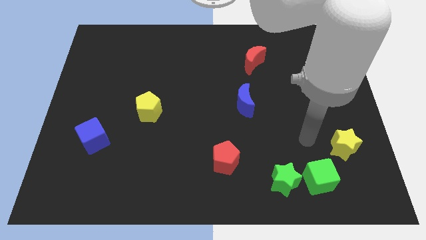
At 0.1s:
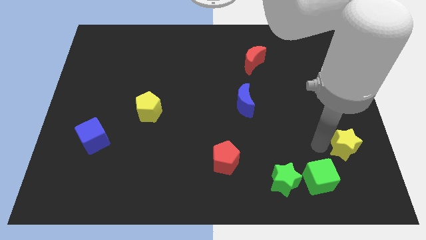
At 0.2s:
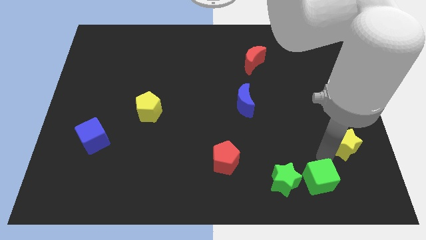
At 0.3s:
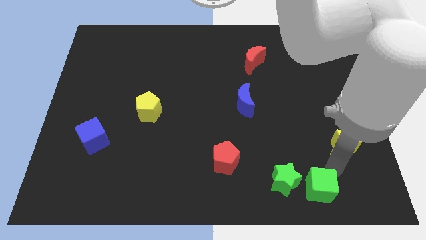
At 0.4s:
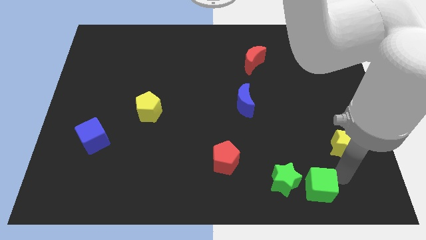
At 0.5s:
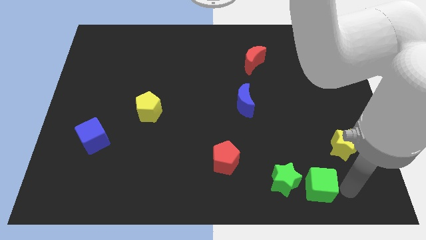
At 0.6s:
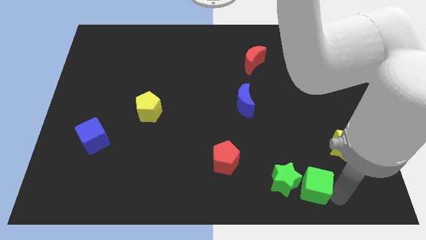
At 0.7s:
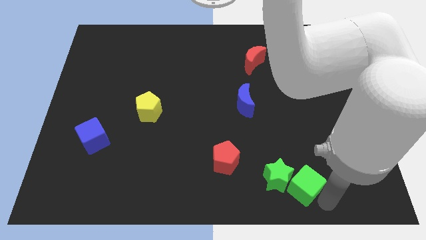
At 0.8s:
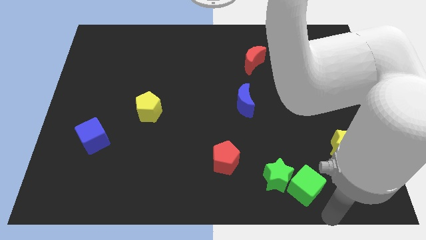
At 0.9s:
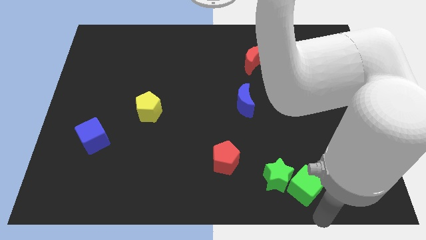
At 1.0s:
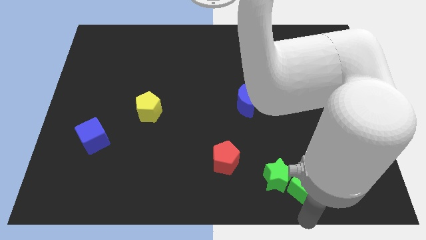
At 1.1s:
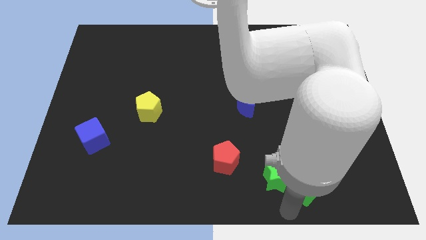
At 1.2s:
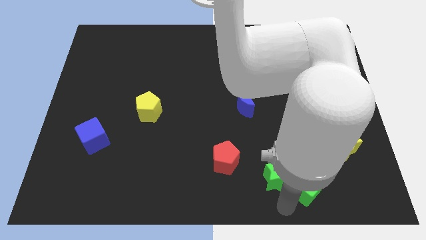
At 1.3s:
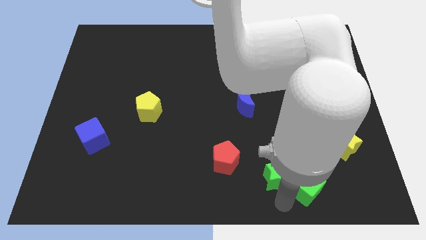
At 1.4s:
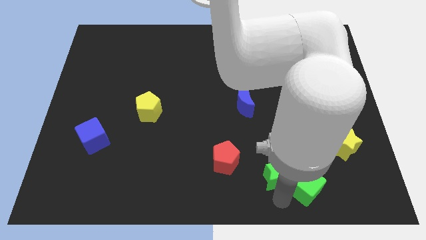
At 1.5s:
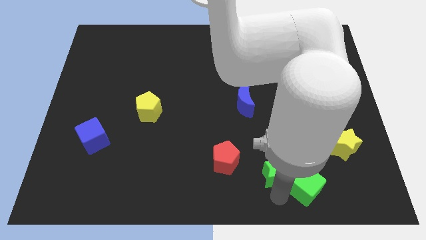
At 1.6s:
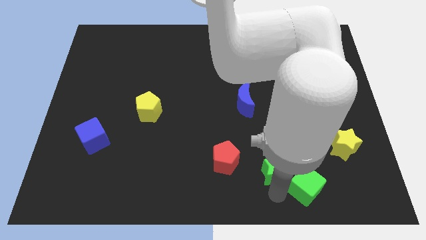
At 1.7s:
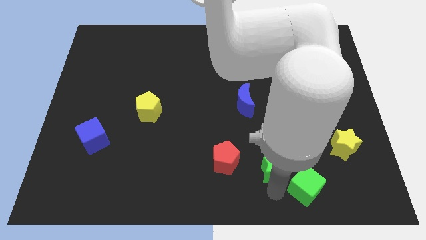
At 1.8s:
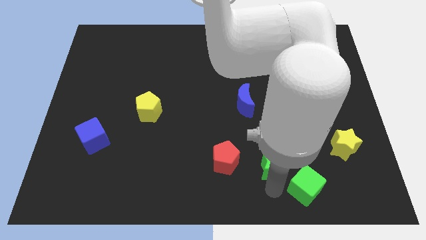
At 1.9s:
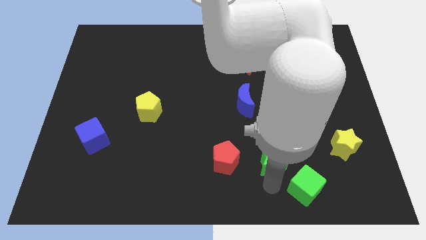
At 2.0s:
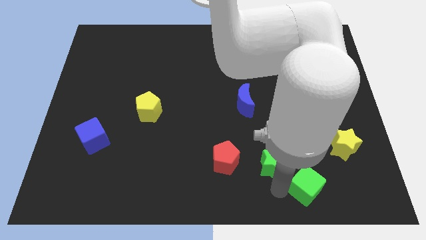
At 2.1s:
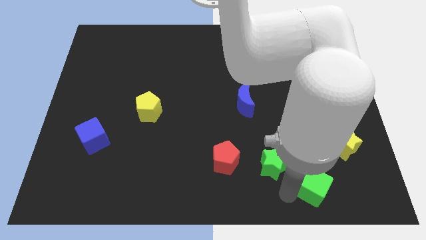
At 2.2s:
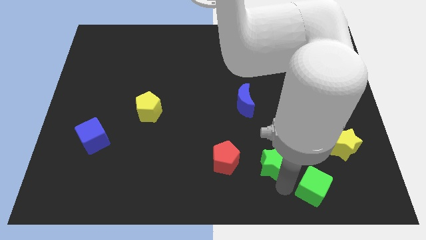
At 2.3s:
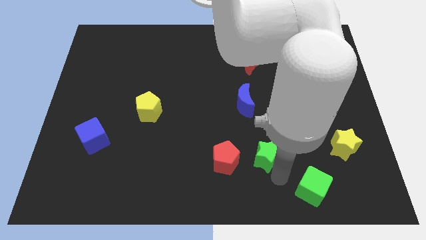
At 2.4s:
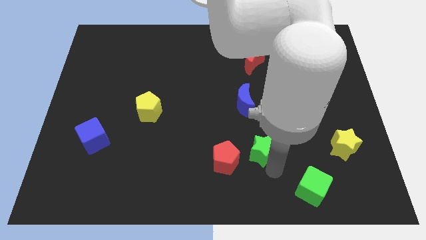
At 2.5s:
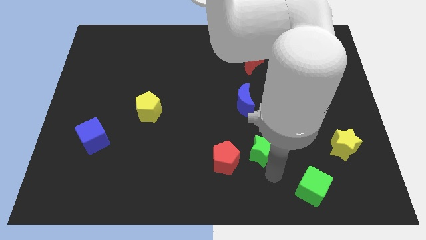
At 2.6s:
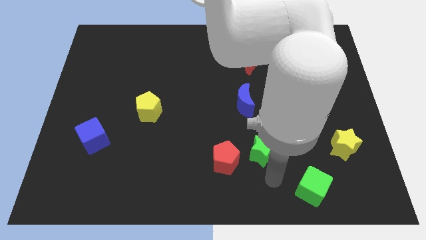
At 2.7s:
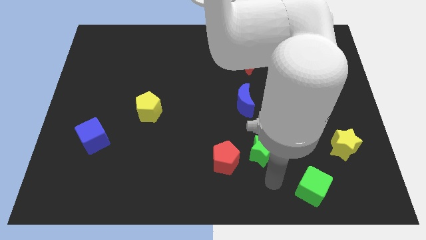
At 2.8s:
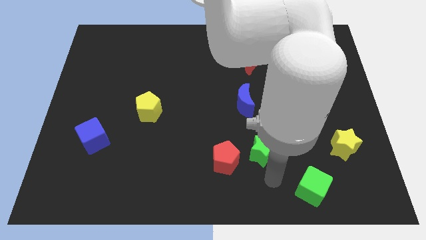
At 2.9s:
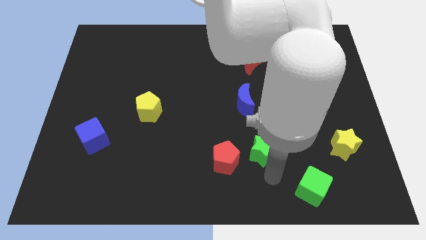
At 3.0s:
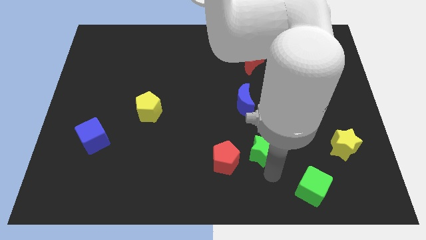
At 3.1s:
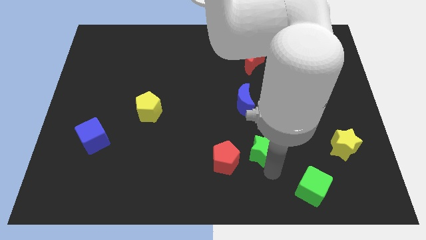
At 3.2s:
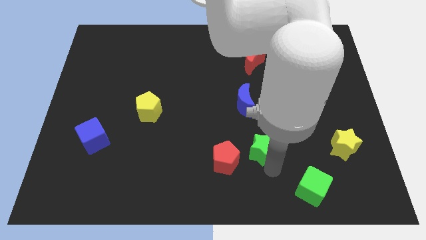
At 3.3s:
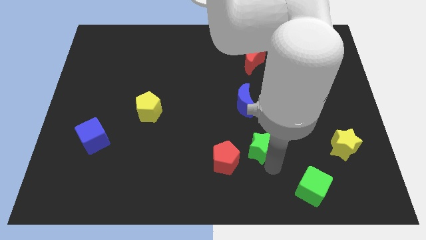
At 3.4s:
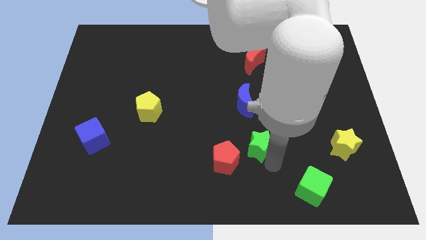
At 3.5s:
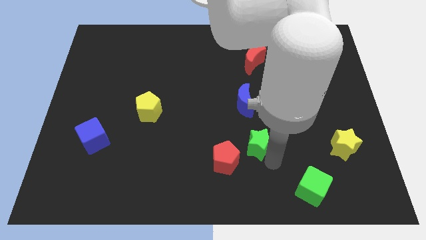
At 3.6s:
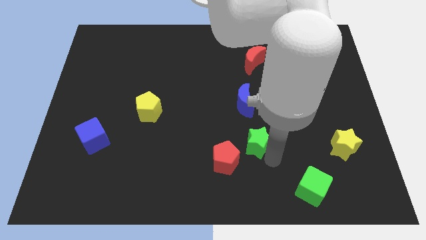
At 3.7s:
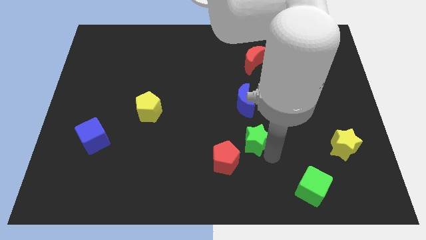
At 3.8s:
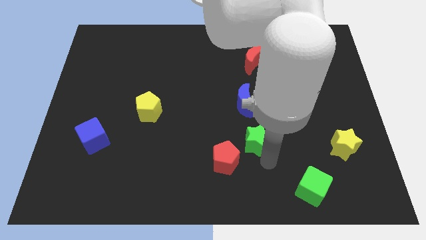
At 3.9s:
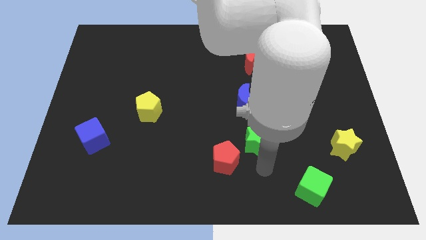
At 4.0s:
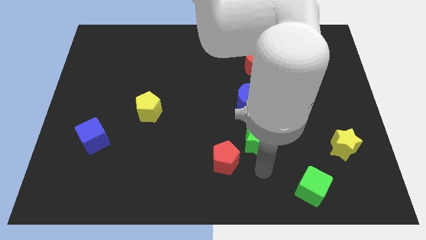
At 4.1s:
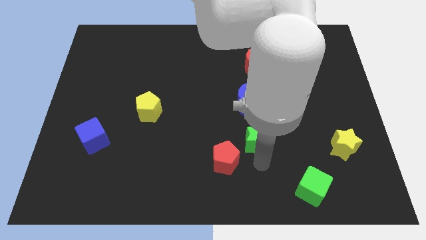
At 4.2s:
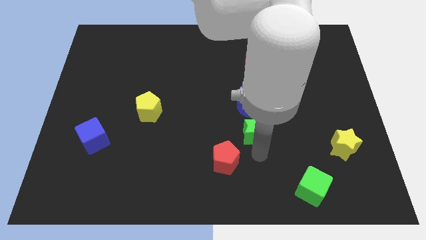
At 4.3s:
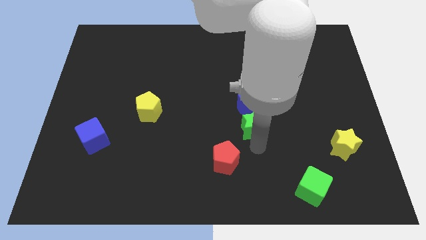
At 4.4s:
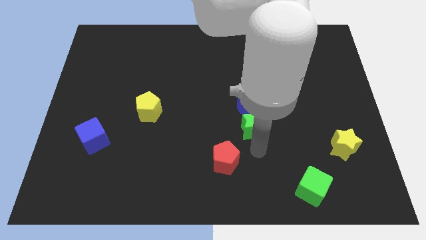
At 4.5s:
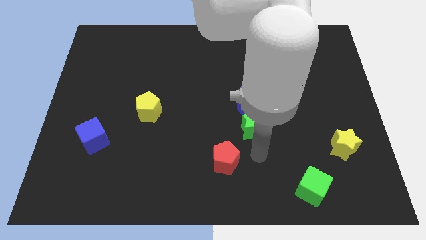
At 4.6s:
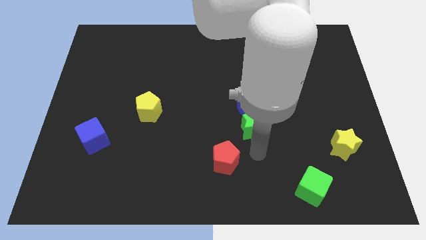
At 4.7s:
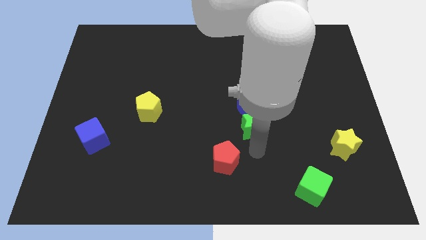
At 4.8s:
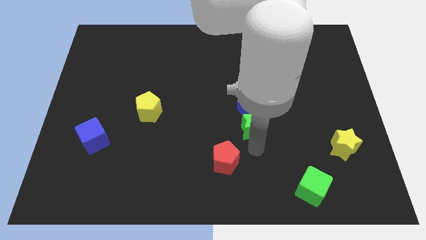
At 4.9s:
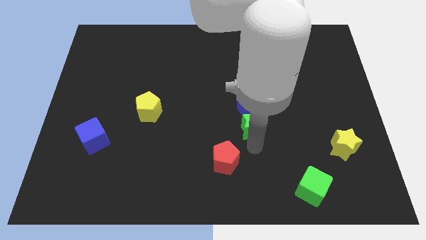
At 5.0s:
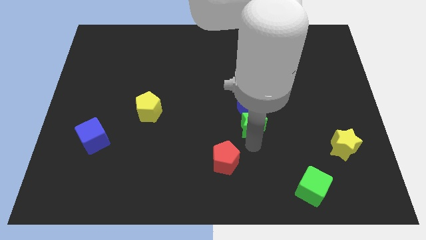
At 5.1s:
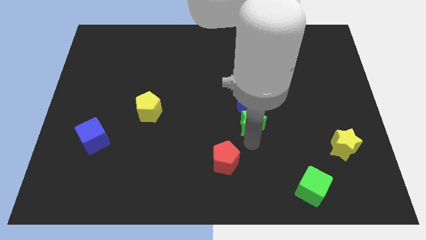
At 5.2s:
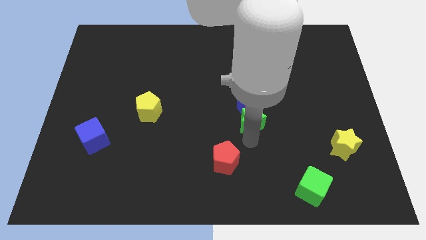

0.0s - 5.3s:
slide the green star to the blue moon

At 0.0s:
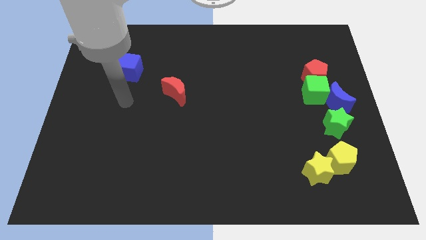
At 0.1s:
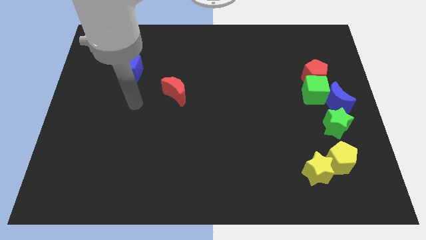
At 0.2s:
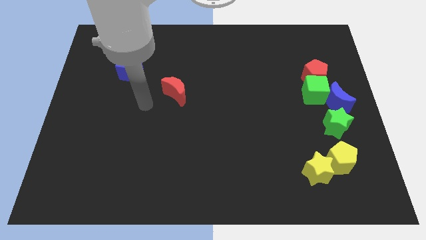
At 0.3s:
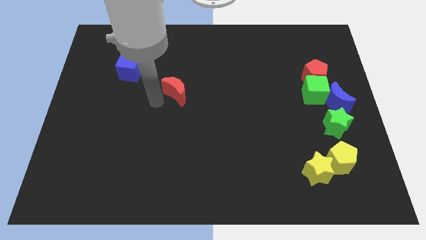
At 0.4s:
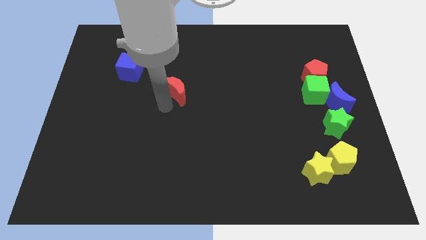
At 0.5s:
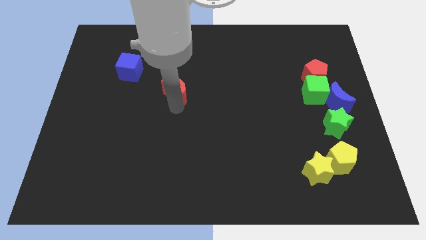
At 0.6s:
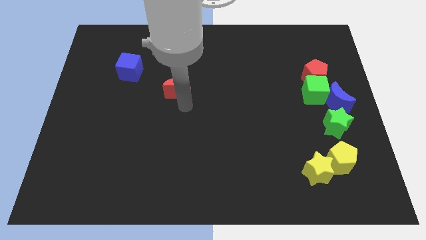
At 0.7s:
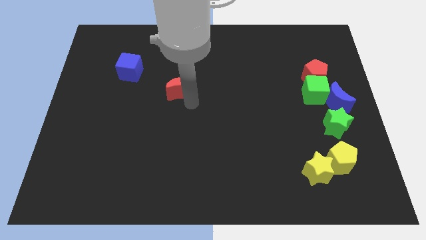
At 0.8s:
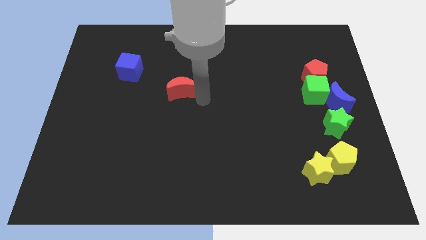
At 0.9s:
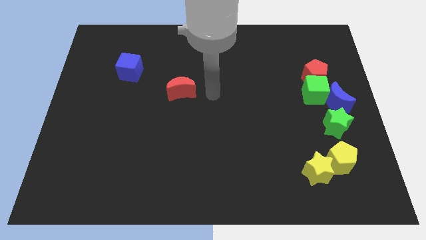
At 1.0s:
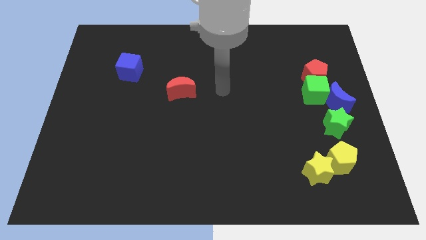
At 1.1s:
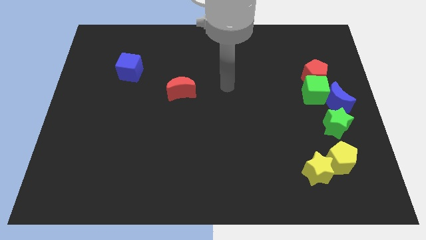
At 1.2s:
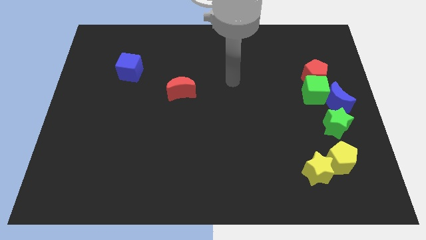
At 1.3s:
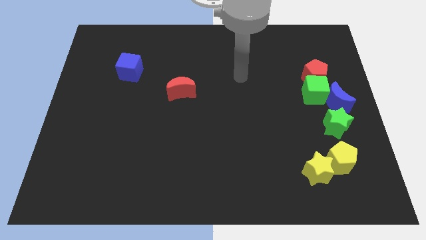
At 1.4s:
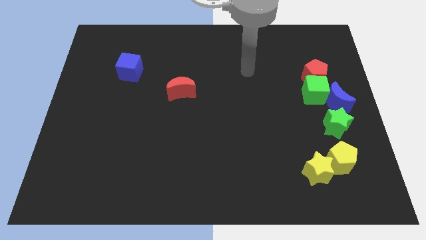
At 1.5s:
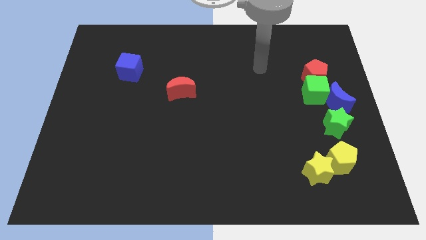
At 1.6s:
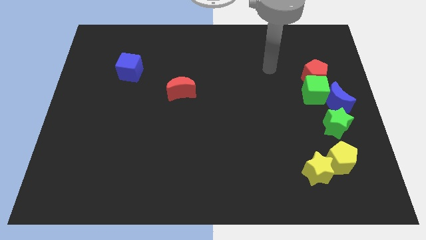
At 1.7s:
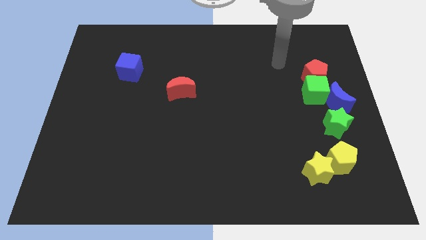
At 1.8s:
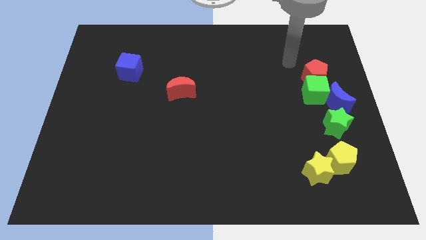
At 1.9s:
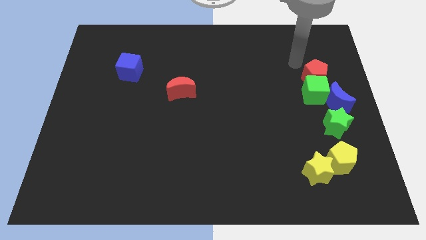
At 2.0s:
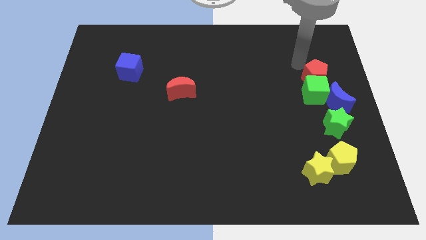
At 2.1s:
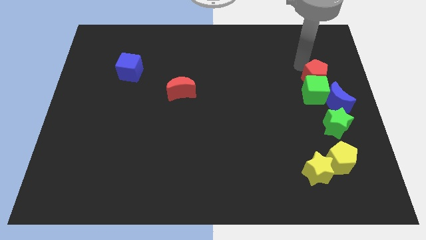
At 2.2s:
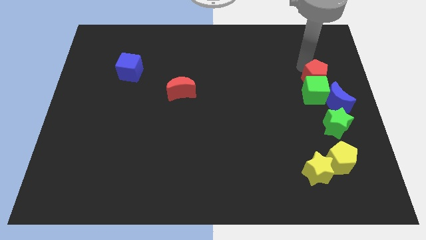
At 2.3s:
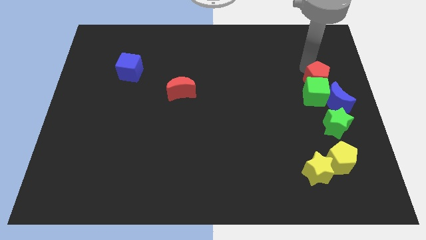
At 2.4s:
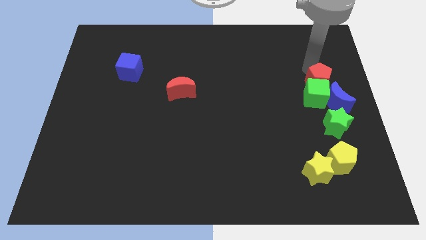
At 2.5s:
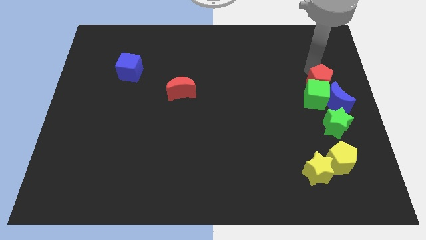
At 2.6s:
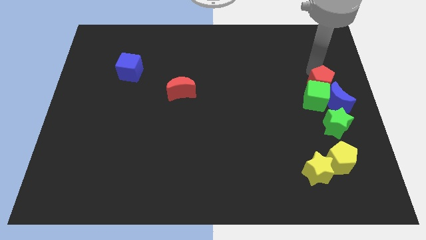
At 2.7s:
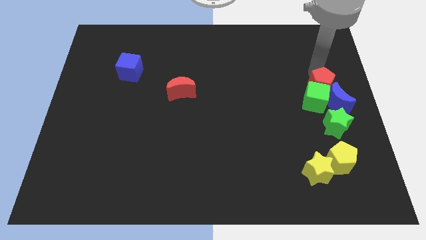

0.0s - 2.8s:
move the red pentagon to the blue moon
